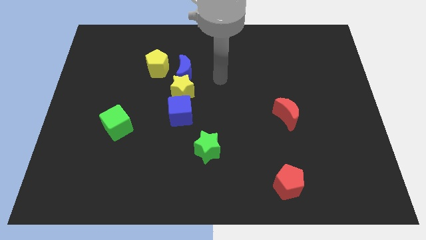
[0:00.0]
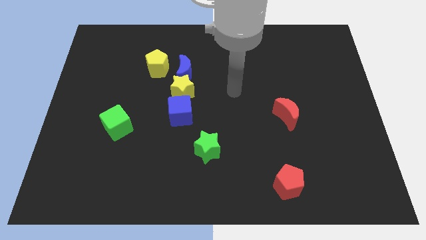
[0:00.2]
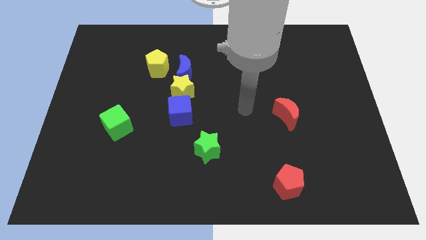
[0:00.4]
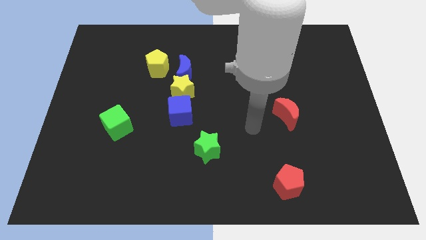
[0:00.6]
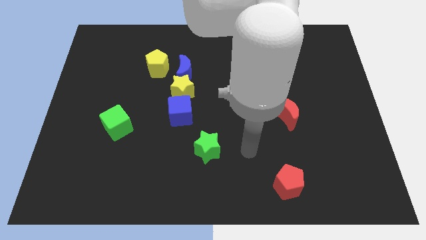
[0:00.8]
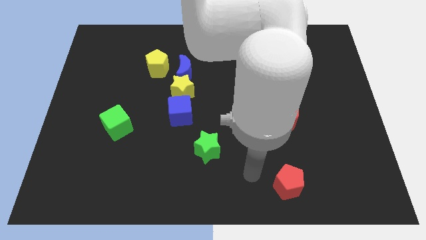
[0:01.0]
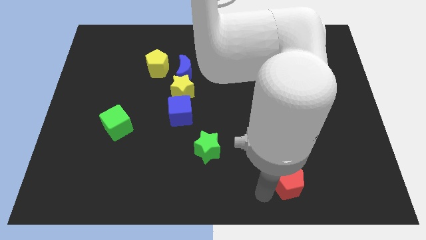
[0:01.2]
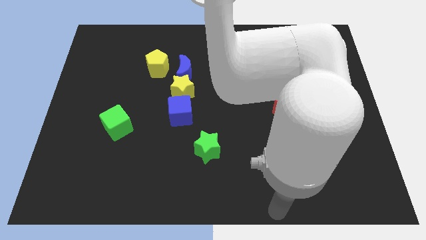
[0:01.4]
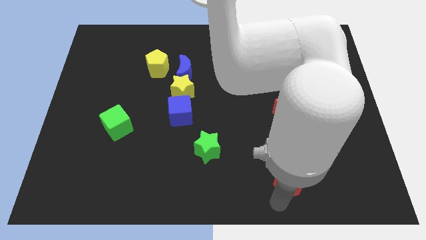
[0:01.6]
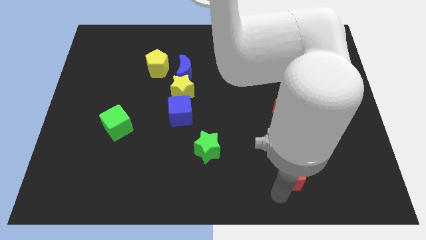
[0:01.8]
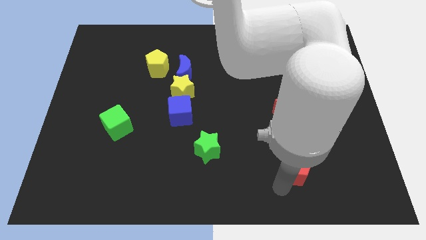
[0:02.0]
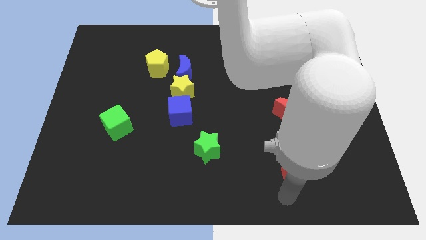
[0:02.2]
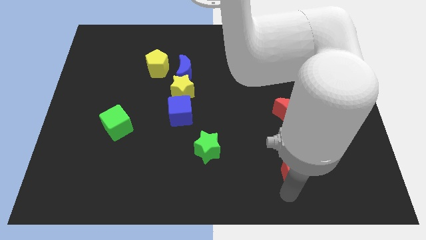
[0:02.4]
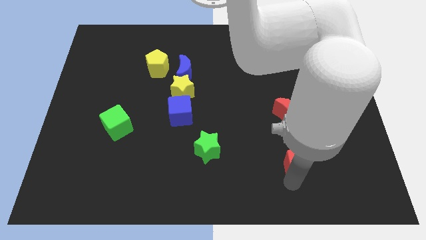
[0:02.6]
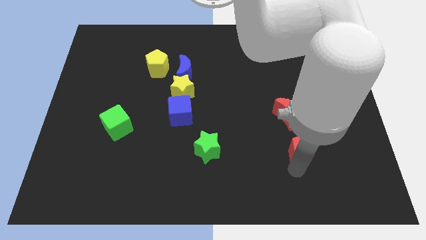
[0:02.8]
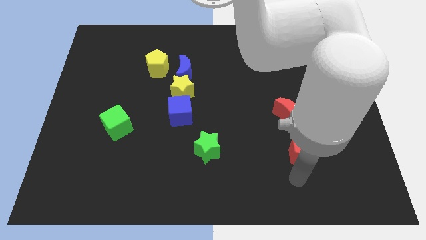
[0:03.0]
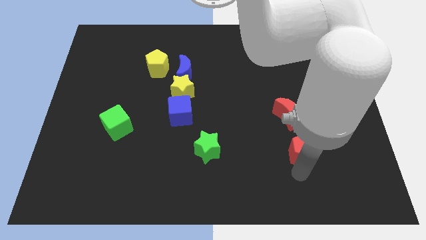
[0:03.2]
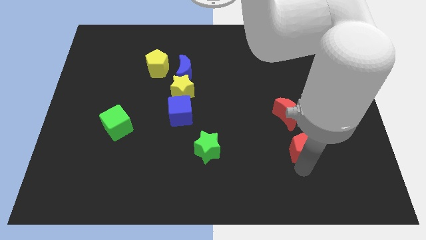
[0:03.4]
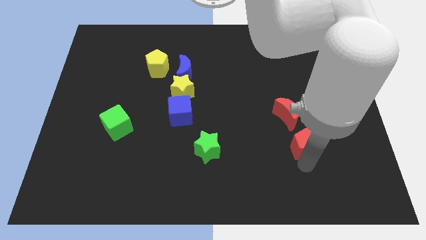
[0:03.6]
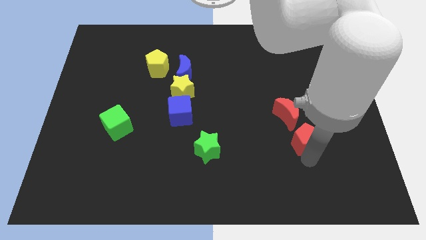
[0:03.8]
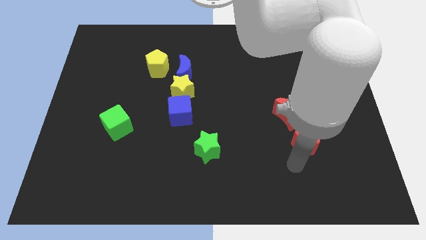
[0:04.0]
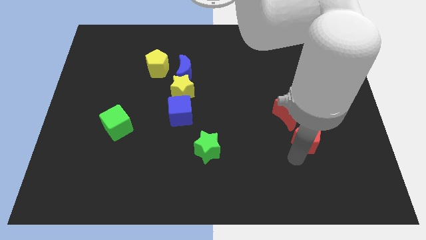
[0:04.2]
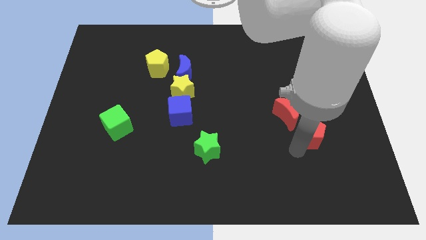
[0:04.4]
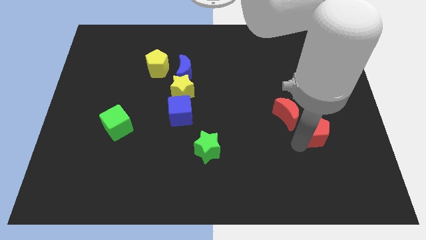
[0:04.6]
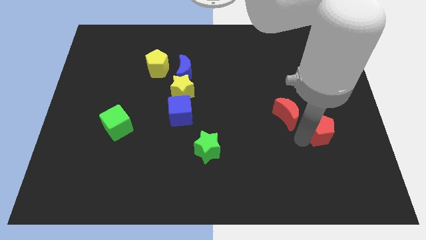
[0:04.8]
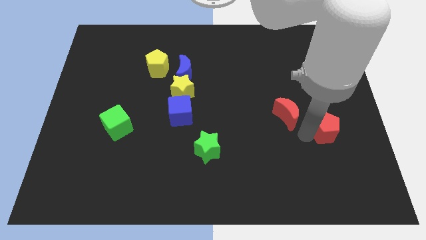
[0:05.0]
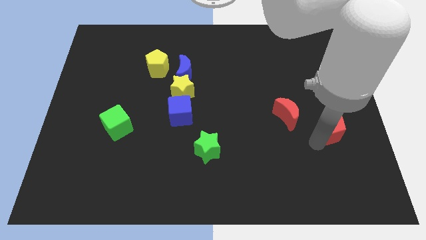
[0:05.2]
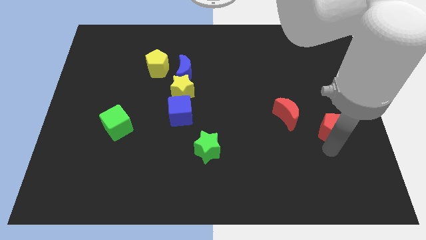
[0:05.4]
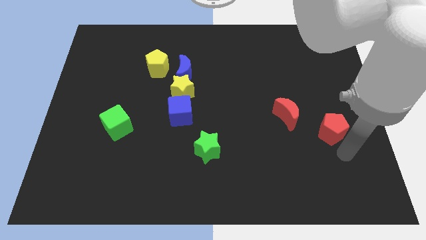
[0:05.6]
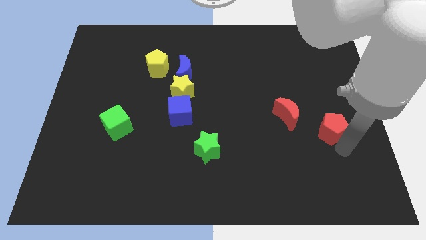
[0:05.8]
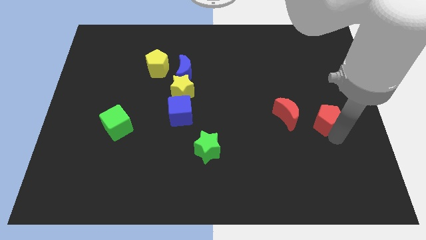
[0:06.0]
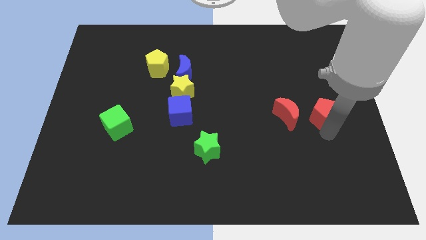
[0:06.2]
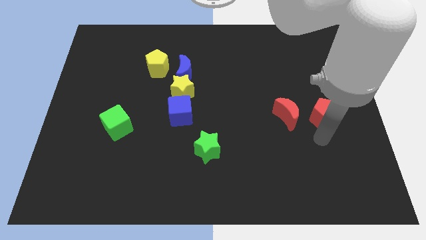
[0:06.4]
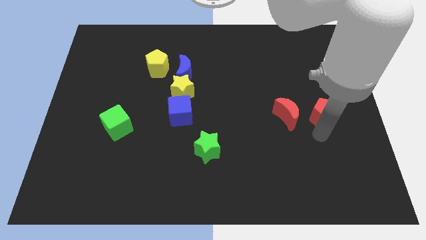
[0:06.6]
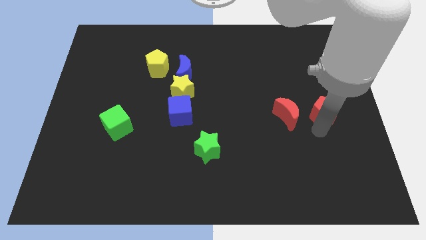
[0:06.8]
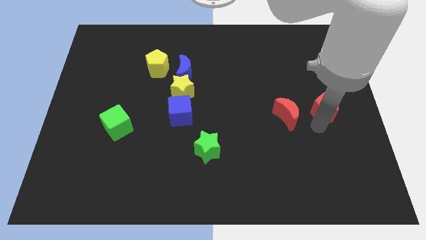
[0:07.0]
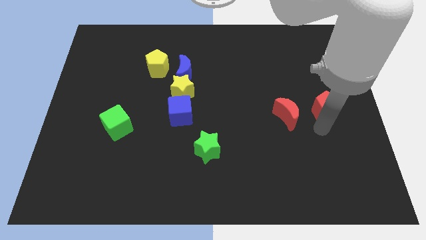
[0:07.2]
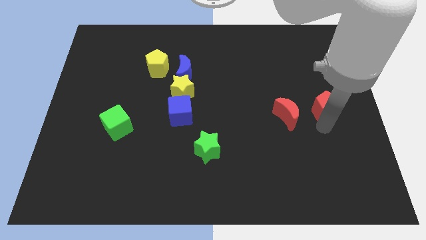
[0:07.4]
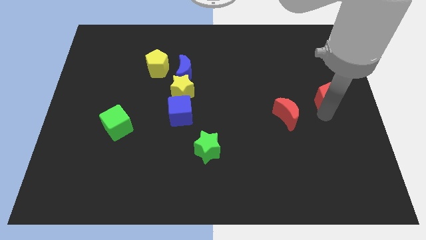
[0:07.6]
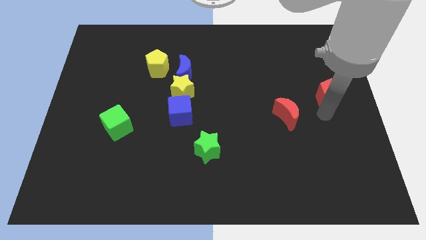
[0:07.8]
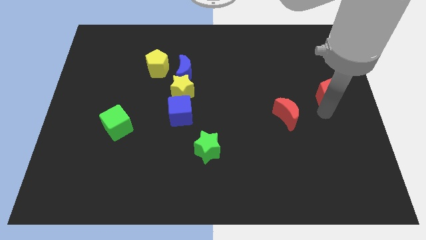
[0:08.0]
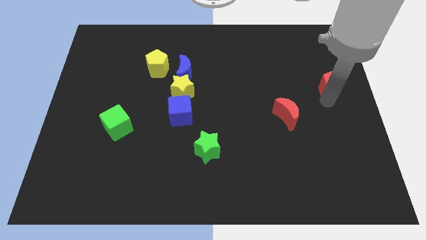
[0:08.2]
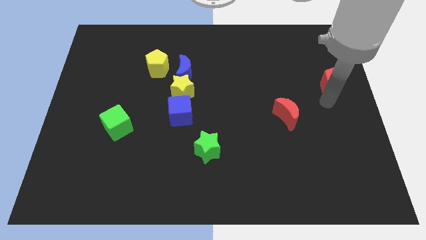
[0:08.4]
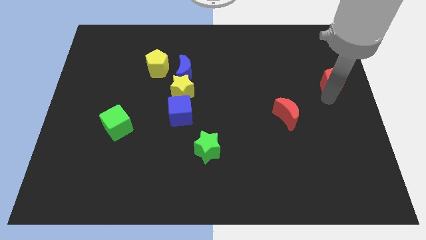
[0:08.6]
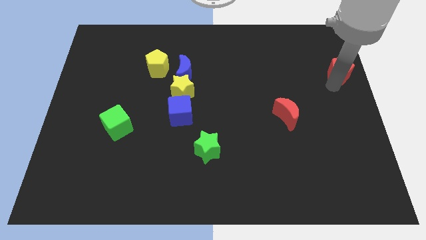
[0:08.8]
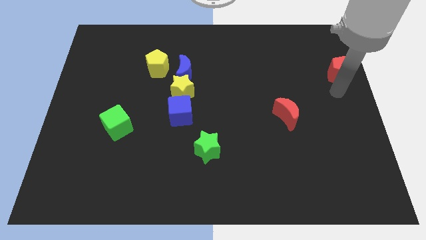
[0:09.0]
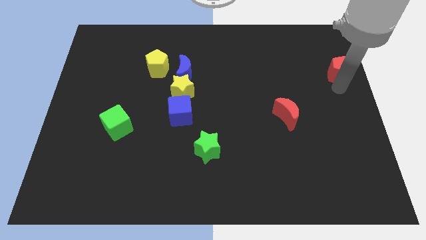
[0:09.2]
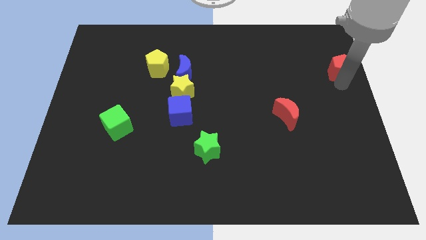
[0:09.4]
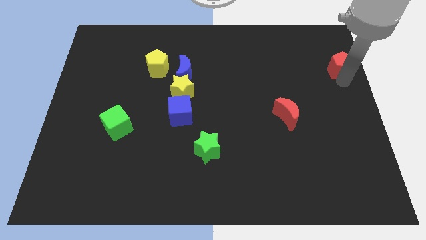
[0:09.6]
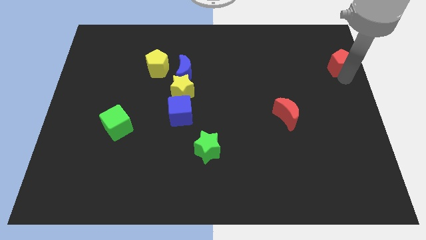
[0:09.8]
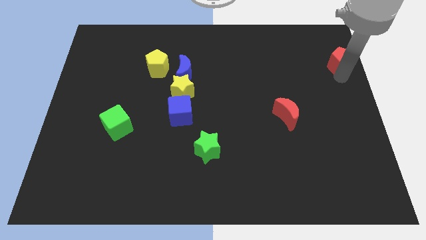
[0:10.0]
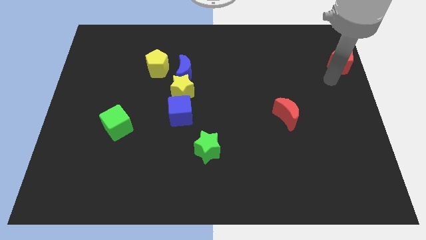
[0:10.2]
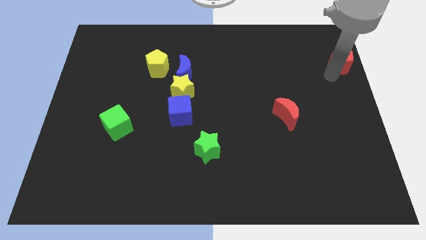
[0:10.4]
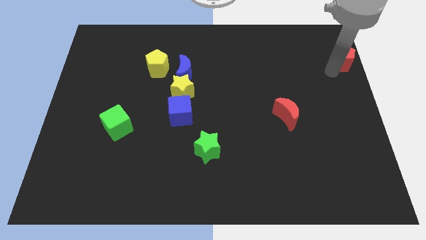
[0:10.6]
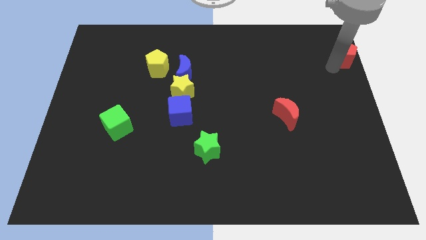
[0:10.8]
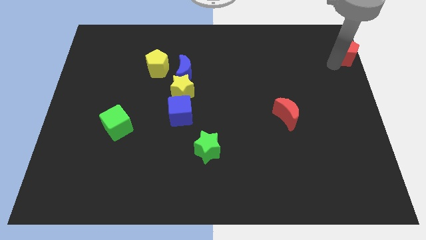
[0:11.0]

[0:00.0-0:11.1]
put the red pentagon to the top right of the board

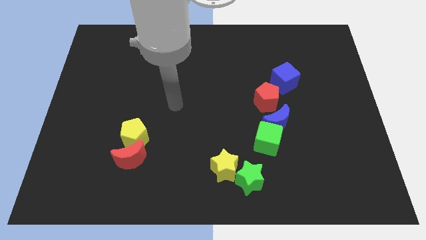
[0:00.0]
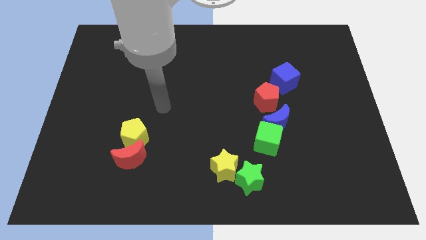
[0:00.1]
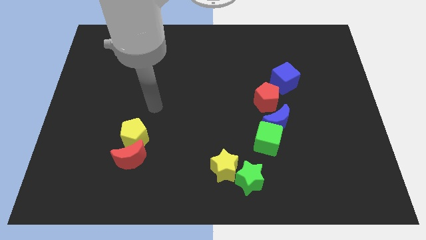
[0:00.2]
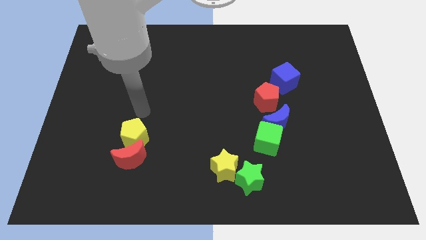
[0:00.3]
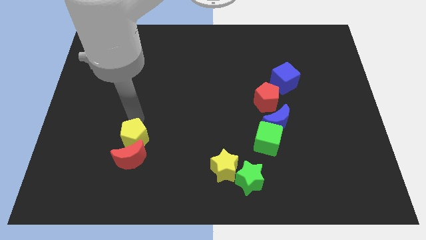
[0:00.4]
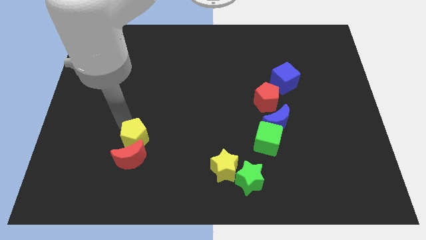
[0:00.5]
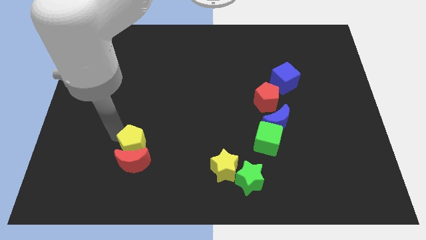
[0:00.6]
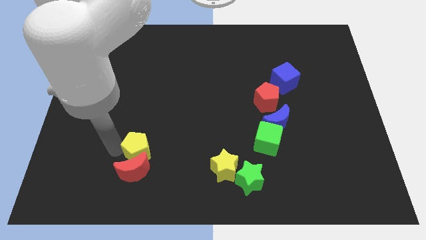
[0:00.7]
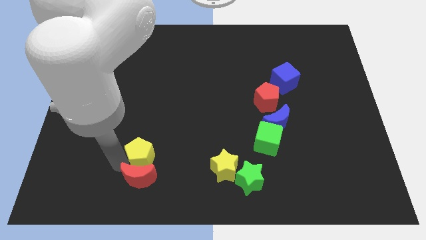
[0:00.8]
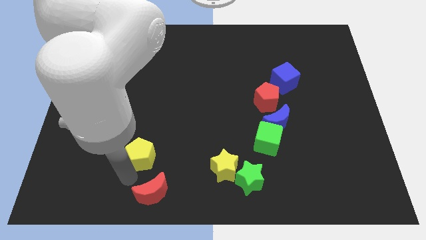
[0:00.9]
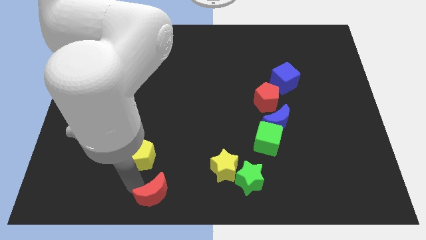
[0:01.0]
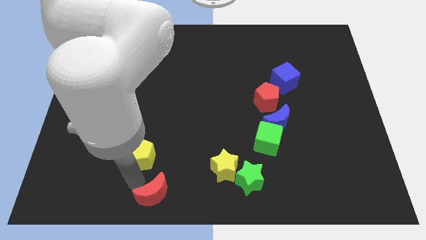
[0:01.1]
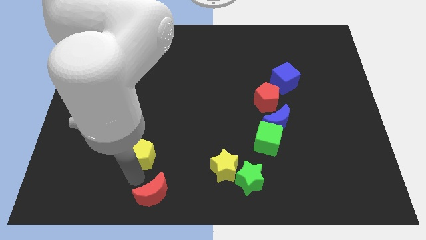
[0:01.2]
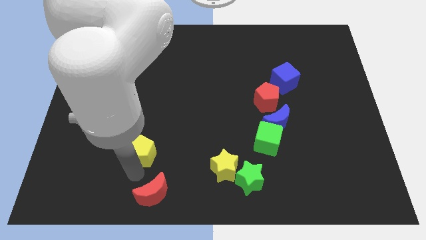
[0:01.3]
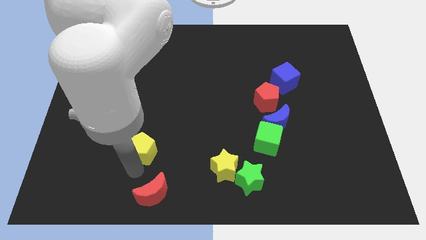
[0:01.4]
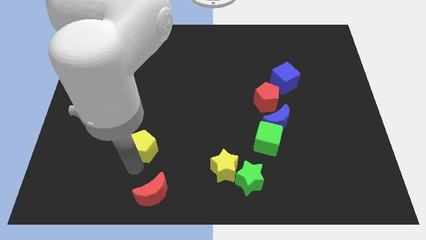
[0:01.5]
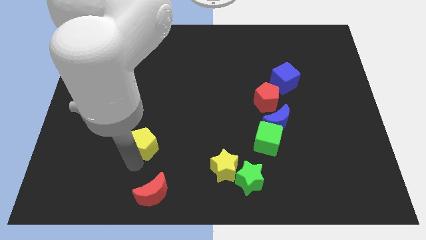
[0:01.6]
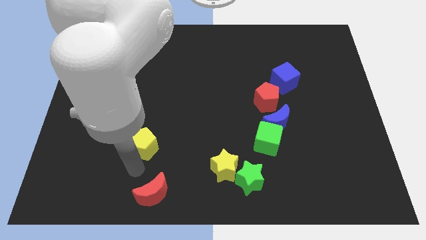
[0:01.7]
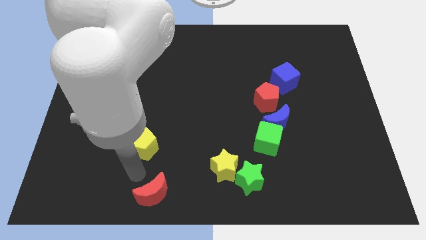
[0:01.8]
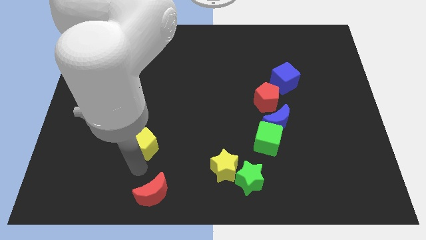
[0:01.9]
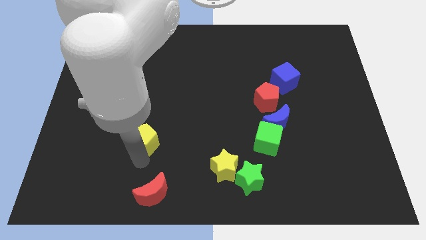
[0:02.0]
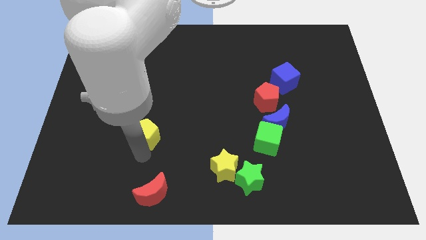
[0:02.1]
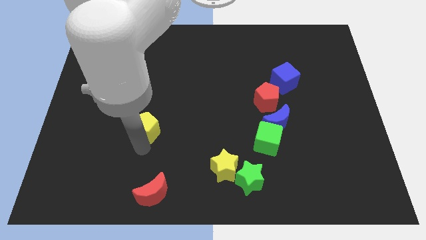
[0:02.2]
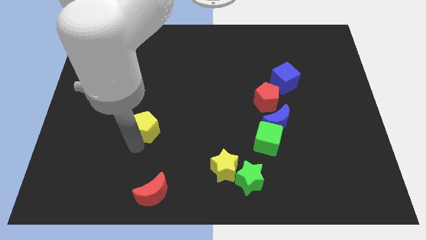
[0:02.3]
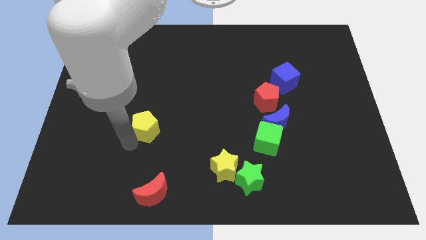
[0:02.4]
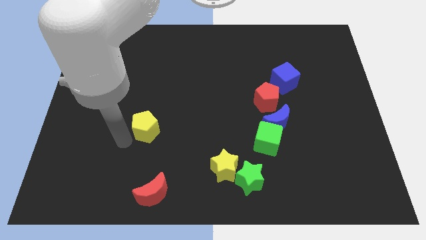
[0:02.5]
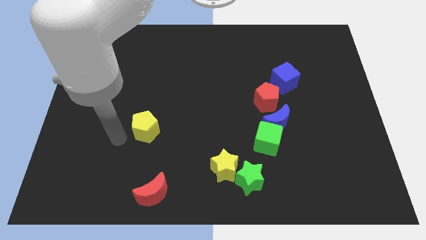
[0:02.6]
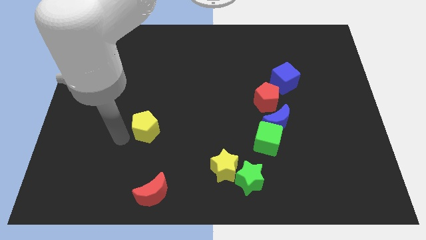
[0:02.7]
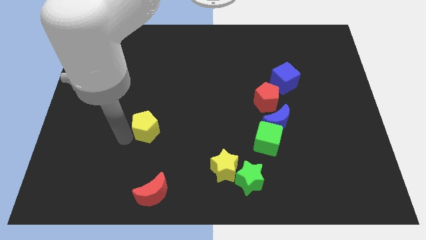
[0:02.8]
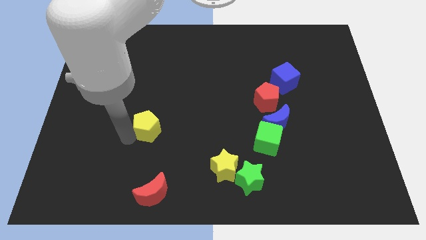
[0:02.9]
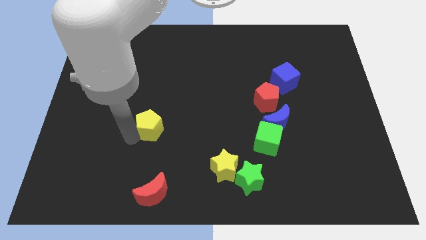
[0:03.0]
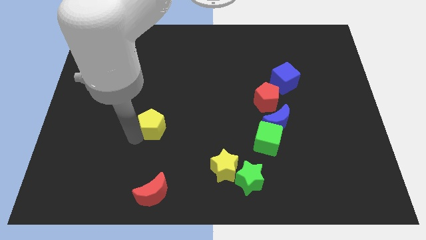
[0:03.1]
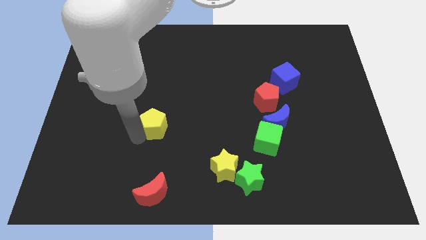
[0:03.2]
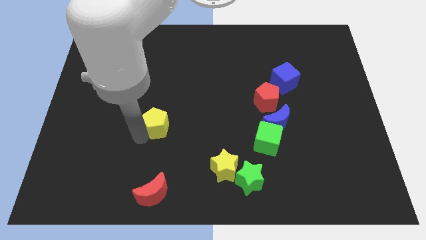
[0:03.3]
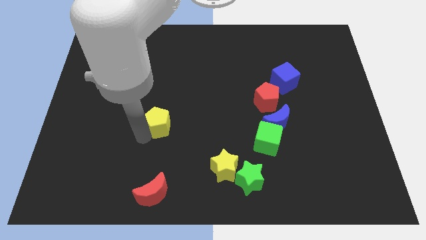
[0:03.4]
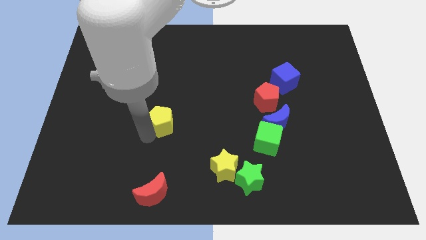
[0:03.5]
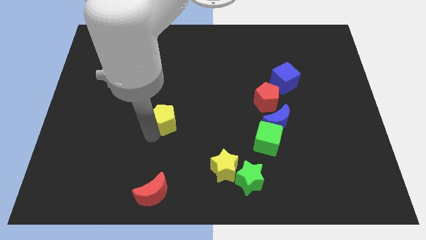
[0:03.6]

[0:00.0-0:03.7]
put the yellow pentagon to the middle
